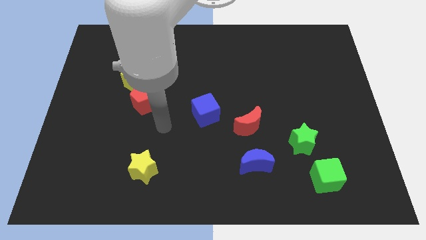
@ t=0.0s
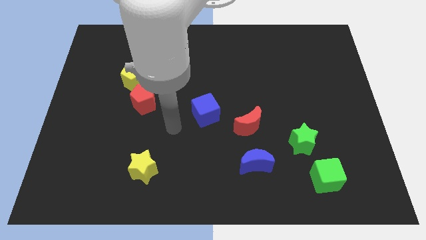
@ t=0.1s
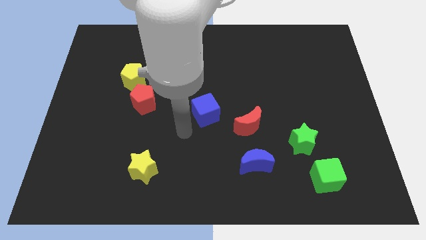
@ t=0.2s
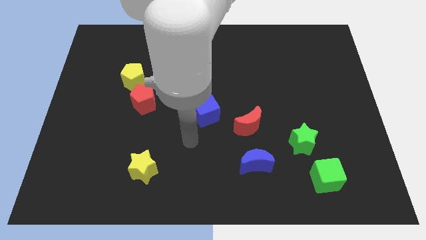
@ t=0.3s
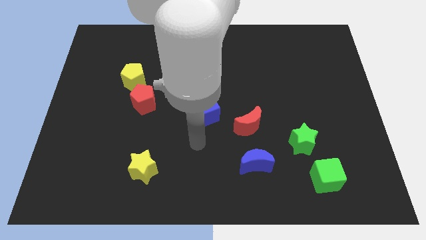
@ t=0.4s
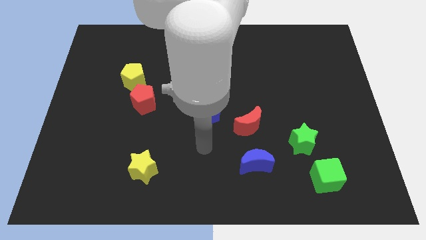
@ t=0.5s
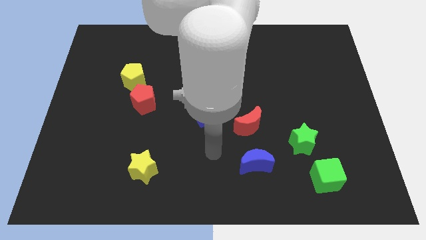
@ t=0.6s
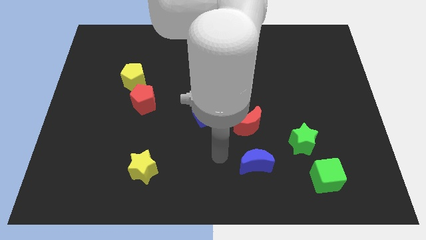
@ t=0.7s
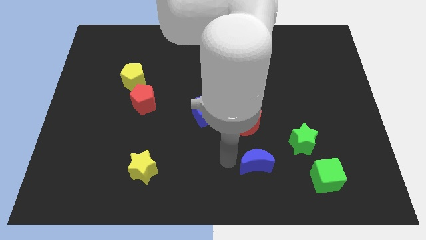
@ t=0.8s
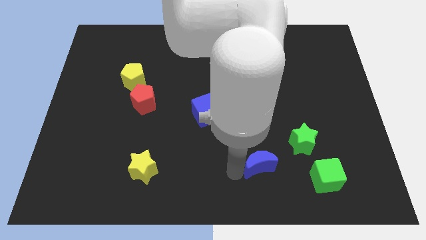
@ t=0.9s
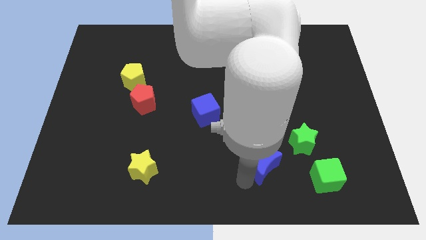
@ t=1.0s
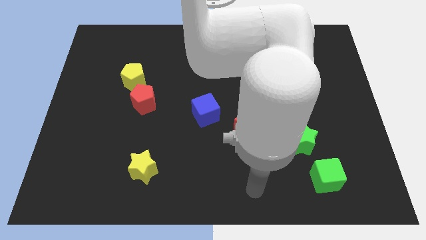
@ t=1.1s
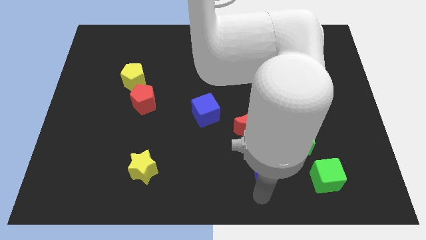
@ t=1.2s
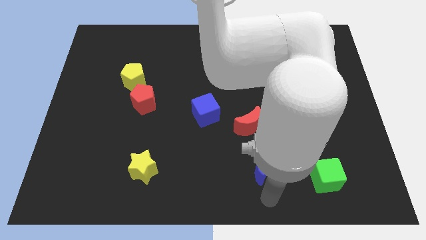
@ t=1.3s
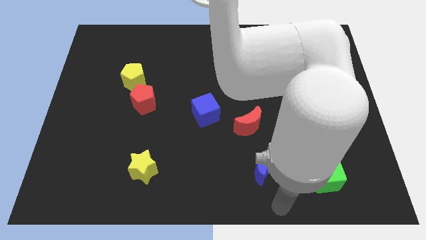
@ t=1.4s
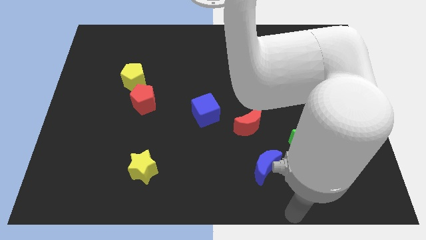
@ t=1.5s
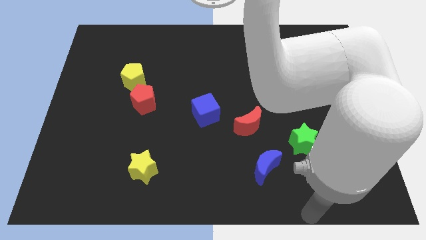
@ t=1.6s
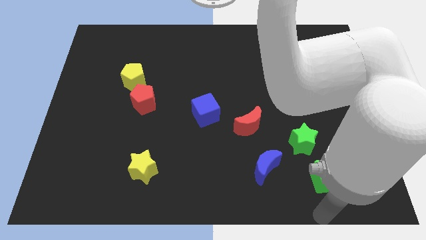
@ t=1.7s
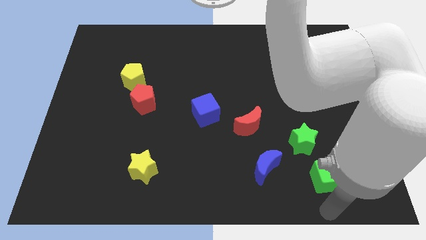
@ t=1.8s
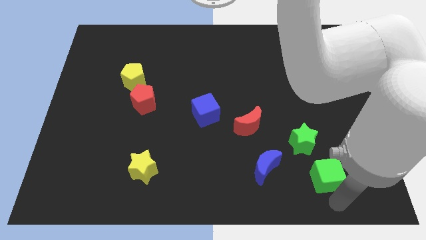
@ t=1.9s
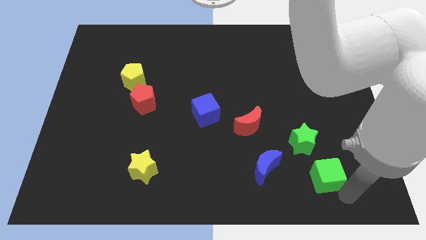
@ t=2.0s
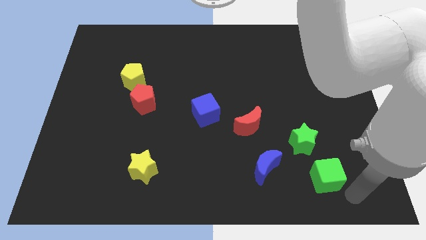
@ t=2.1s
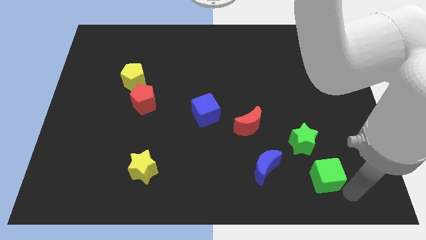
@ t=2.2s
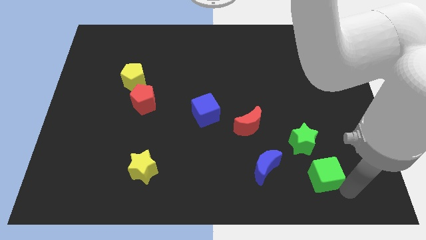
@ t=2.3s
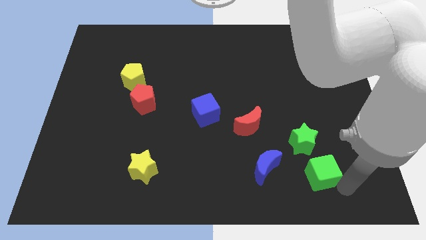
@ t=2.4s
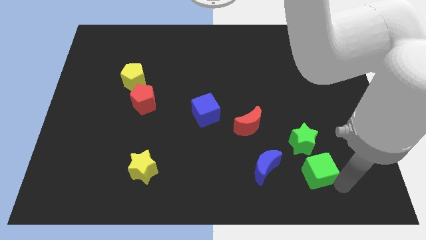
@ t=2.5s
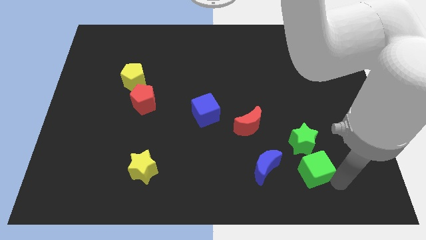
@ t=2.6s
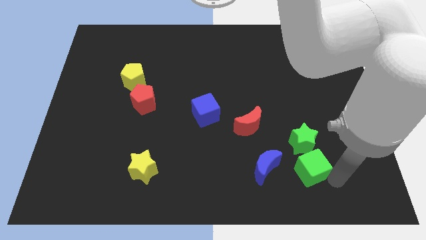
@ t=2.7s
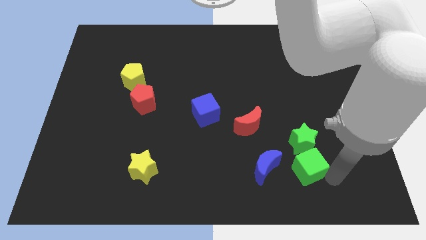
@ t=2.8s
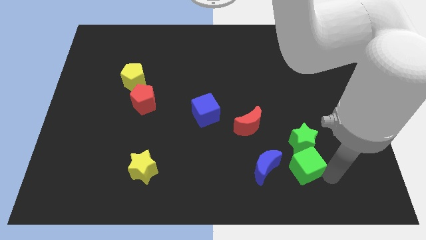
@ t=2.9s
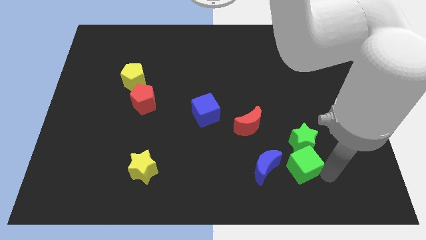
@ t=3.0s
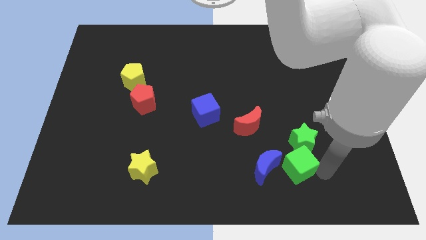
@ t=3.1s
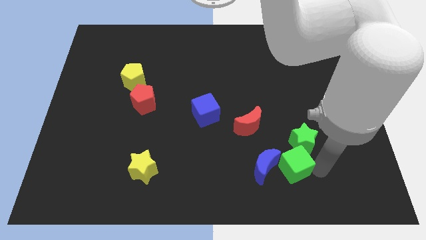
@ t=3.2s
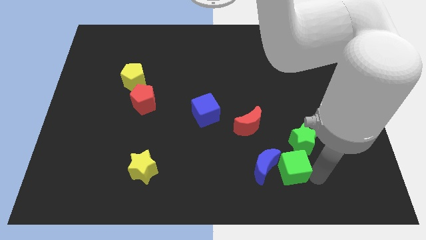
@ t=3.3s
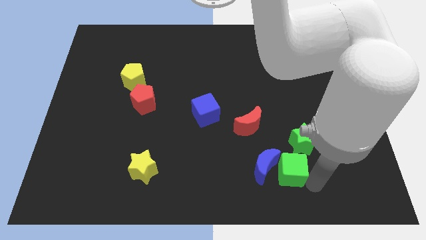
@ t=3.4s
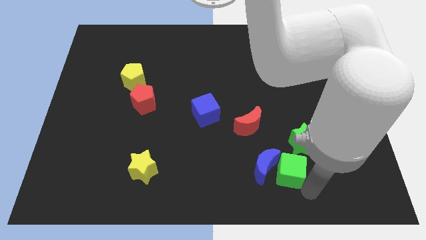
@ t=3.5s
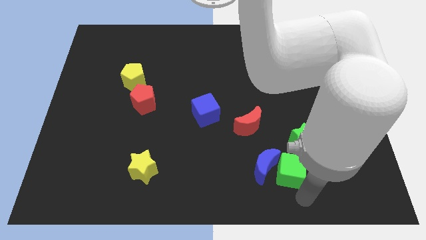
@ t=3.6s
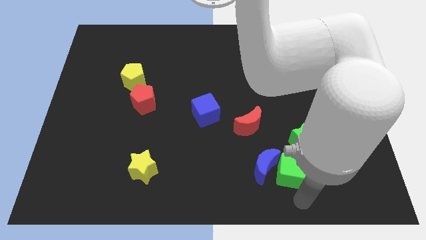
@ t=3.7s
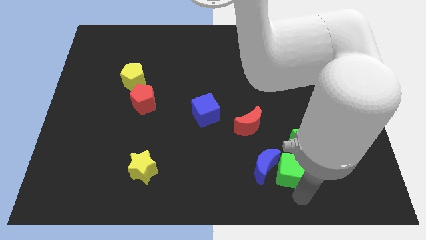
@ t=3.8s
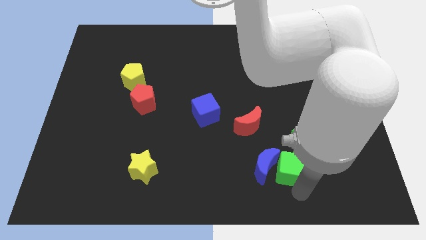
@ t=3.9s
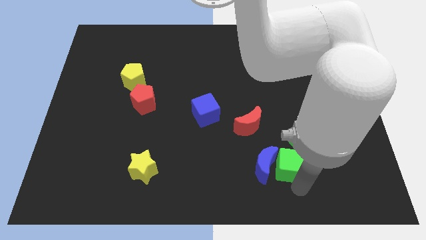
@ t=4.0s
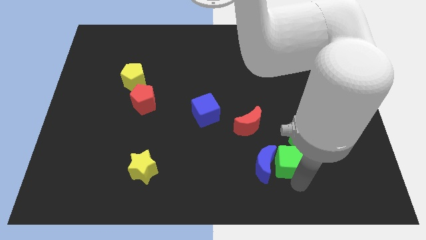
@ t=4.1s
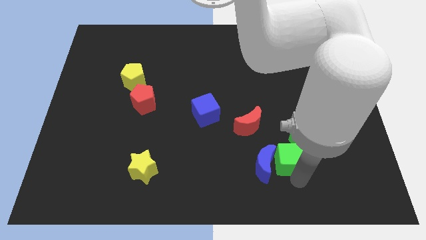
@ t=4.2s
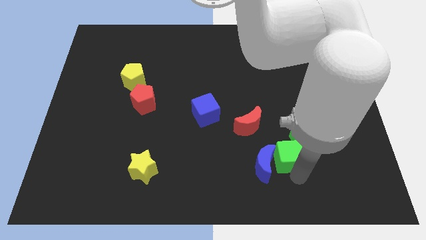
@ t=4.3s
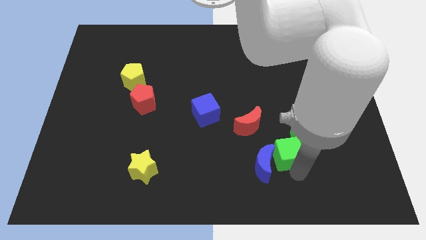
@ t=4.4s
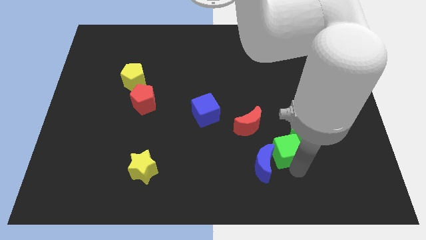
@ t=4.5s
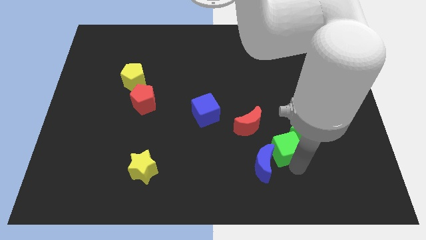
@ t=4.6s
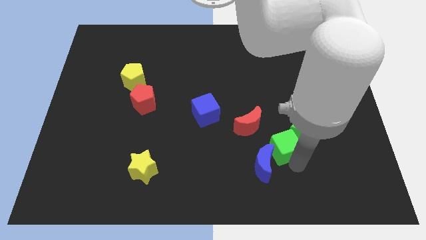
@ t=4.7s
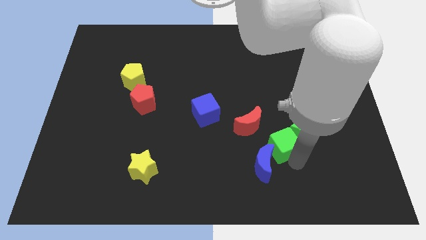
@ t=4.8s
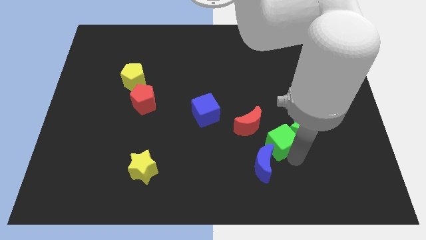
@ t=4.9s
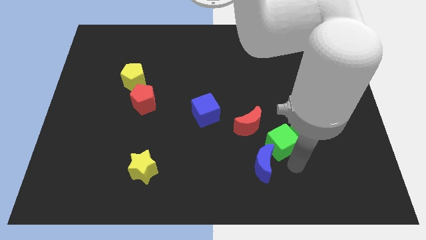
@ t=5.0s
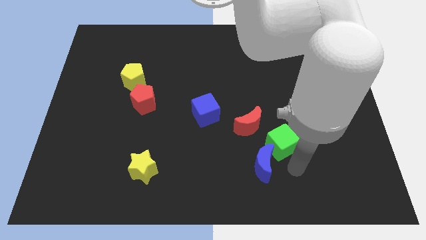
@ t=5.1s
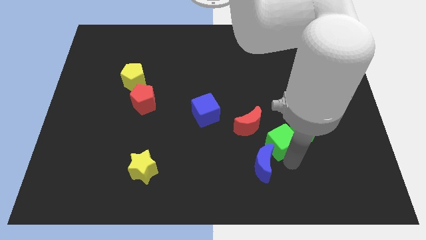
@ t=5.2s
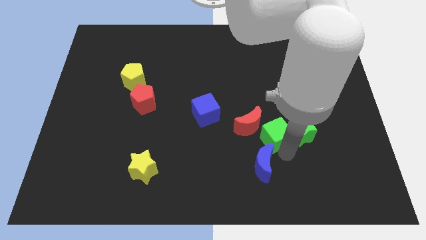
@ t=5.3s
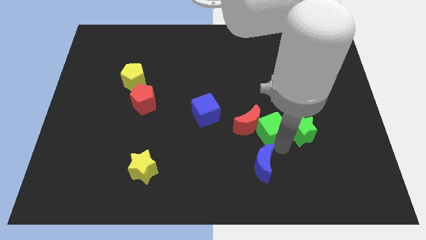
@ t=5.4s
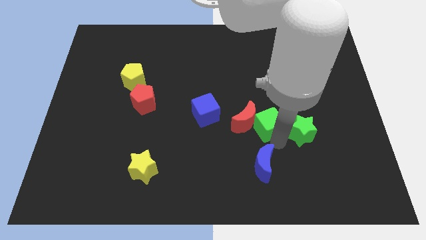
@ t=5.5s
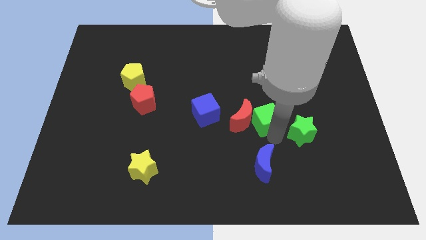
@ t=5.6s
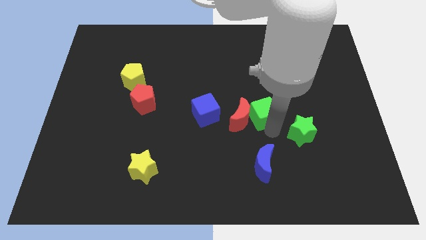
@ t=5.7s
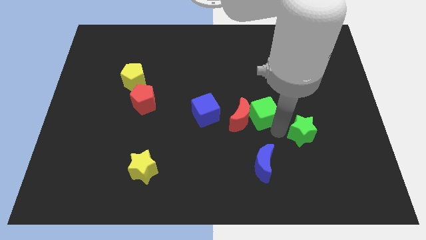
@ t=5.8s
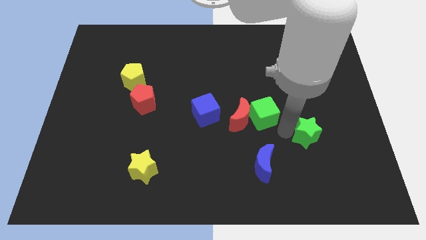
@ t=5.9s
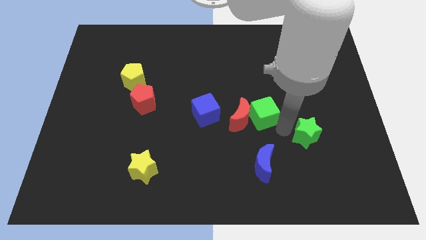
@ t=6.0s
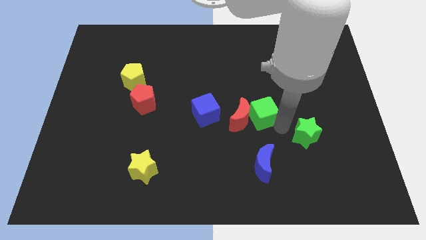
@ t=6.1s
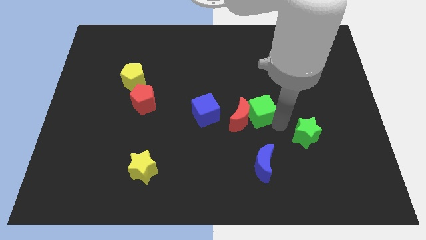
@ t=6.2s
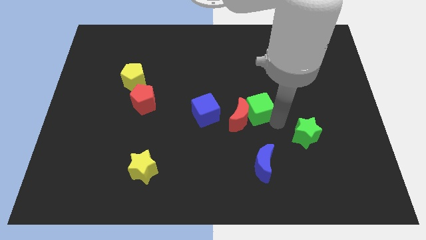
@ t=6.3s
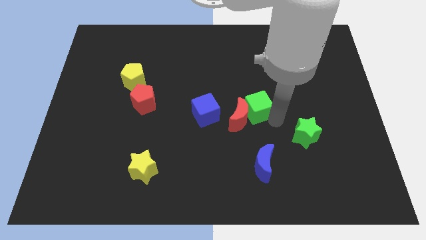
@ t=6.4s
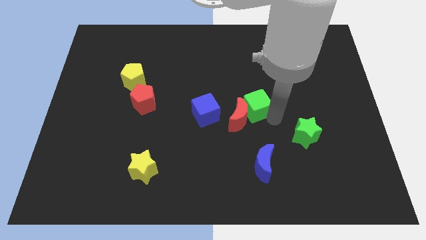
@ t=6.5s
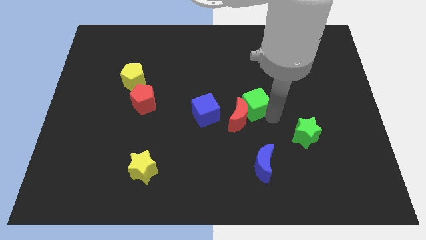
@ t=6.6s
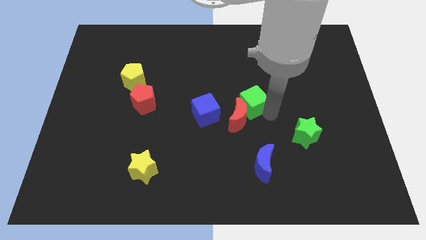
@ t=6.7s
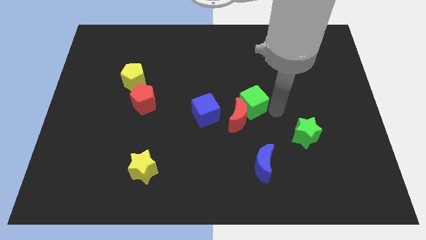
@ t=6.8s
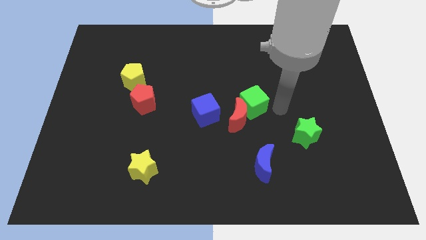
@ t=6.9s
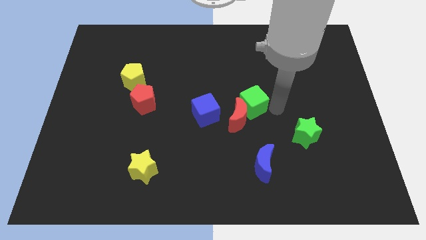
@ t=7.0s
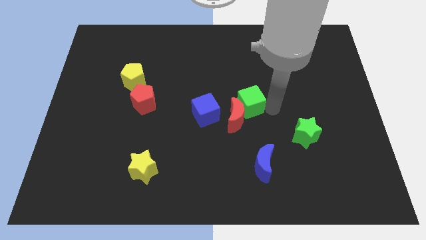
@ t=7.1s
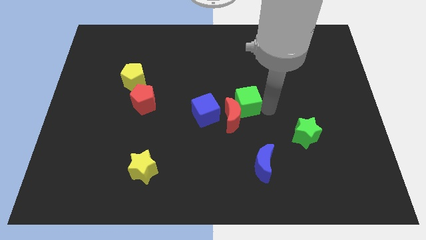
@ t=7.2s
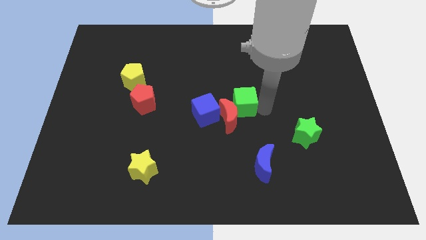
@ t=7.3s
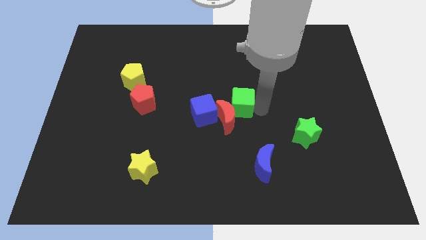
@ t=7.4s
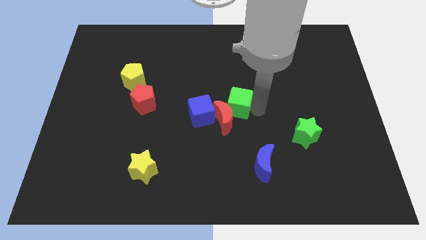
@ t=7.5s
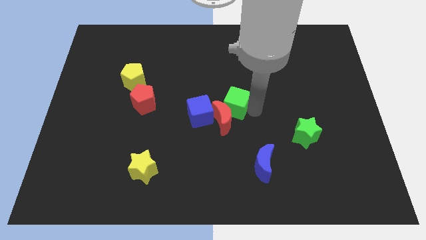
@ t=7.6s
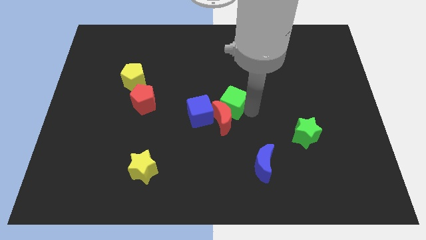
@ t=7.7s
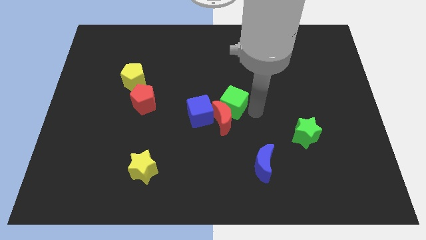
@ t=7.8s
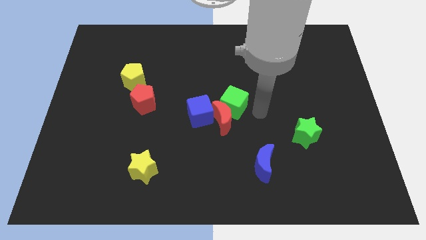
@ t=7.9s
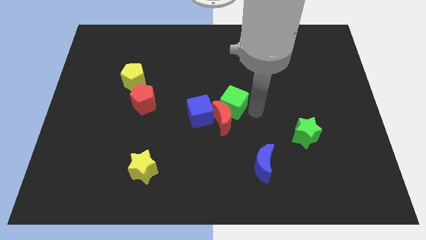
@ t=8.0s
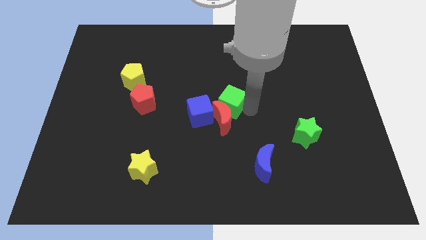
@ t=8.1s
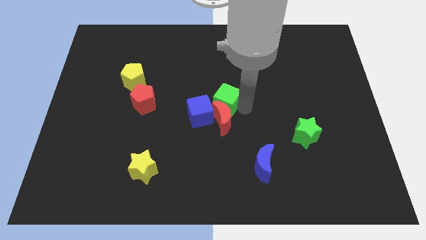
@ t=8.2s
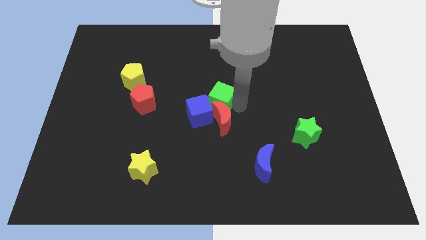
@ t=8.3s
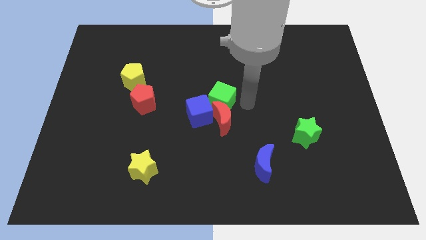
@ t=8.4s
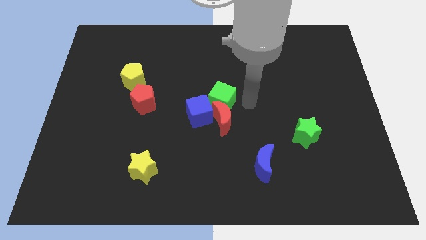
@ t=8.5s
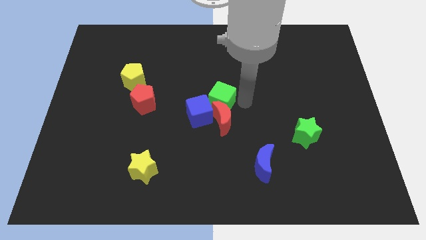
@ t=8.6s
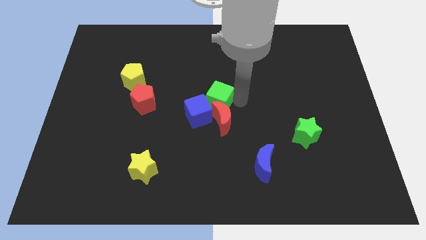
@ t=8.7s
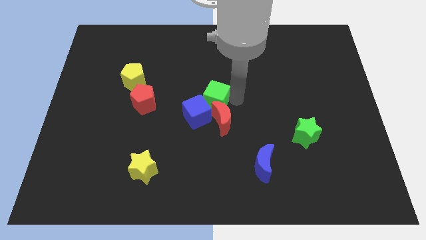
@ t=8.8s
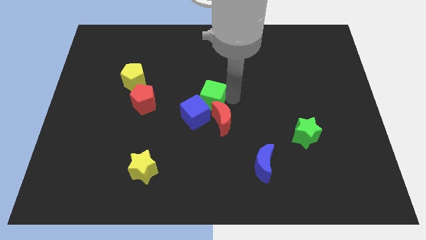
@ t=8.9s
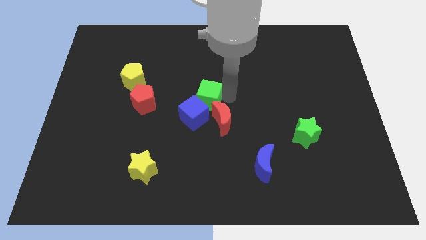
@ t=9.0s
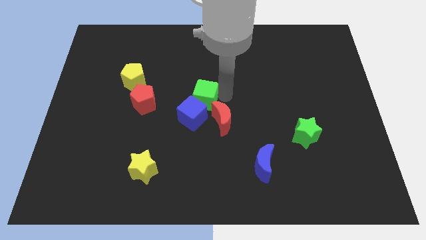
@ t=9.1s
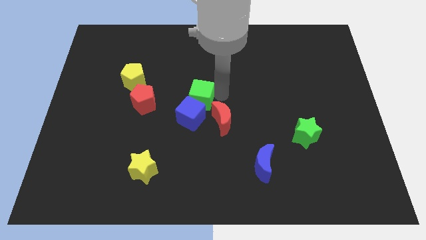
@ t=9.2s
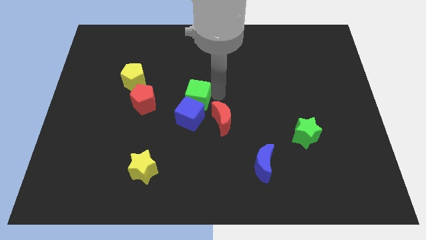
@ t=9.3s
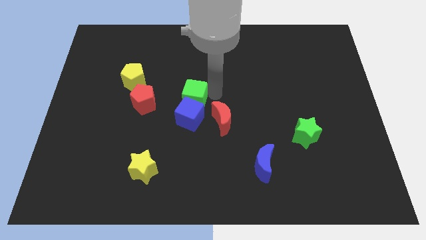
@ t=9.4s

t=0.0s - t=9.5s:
put the green cube to the top left side of the blue cube
